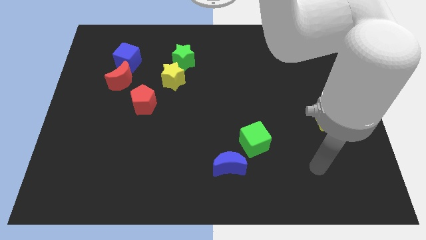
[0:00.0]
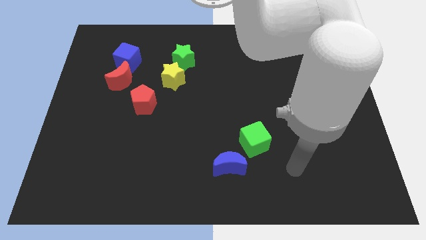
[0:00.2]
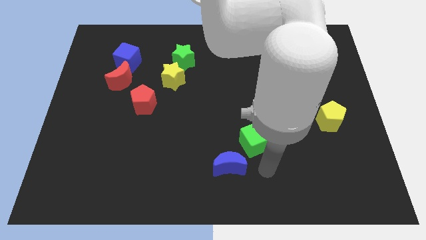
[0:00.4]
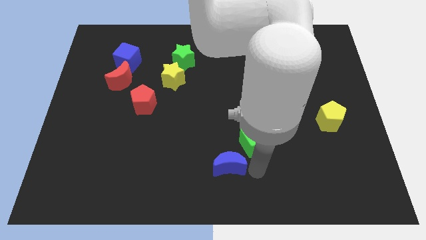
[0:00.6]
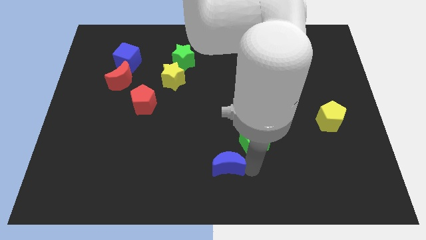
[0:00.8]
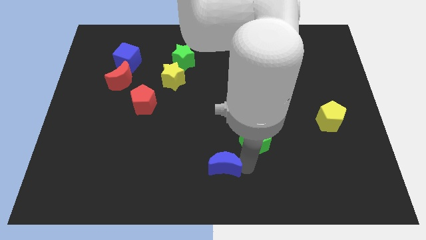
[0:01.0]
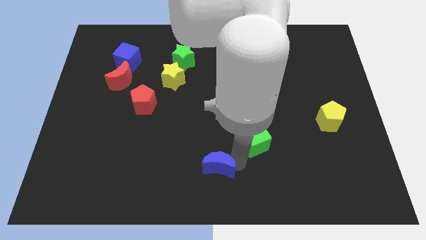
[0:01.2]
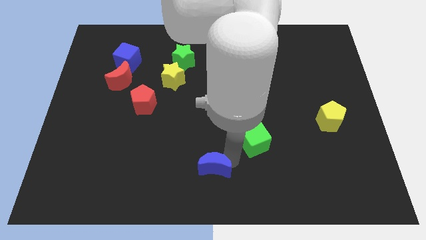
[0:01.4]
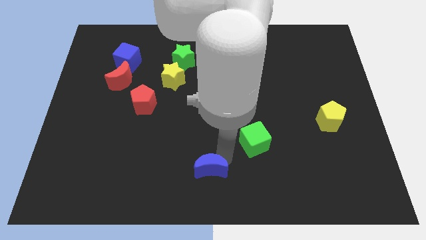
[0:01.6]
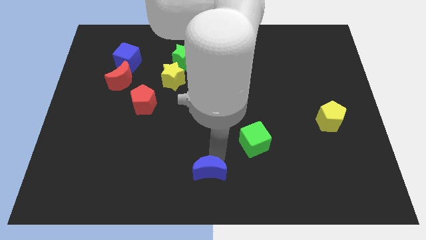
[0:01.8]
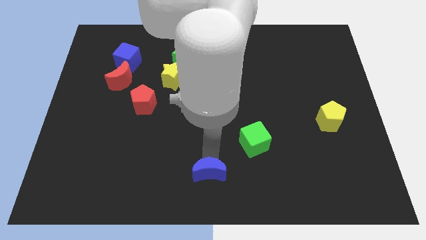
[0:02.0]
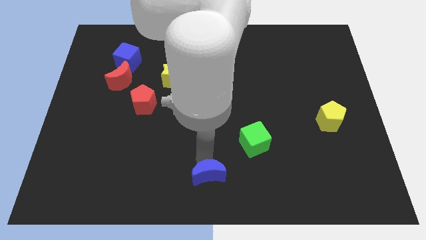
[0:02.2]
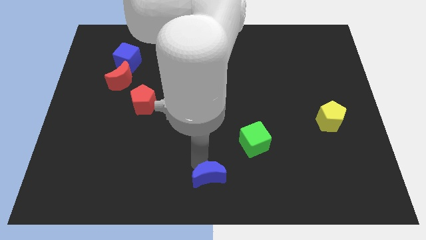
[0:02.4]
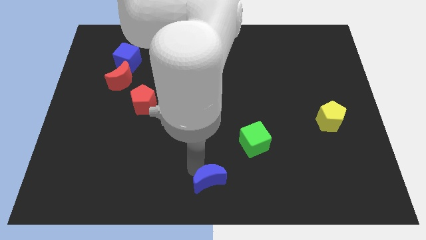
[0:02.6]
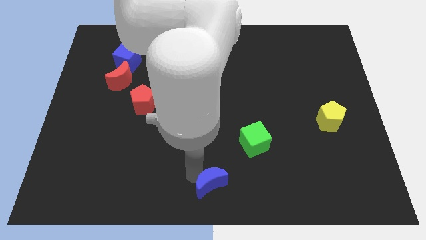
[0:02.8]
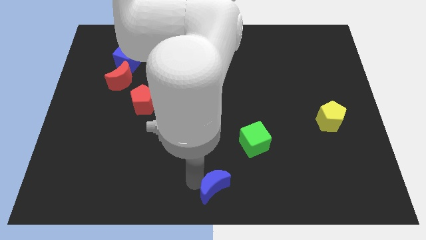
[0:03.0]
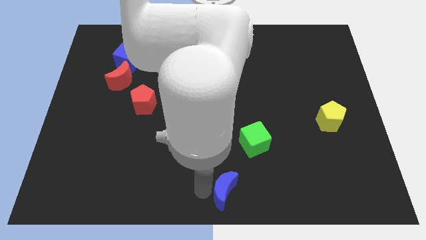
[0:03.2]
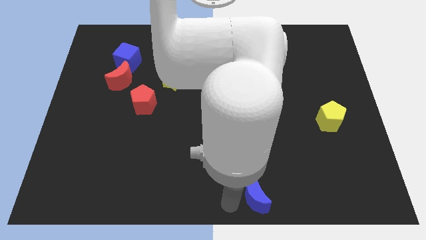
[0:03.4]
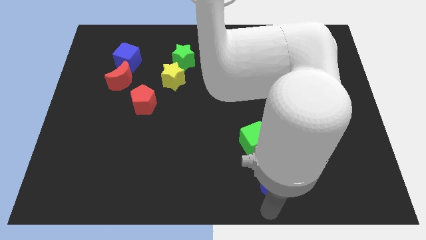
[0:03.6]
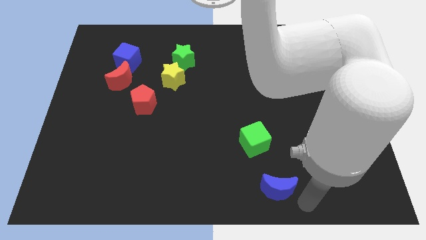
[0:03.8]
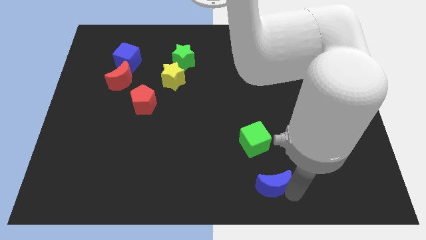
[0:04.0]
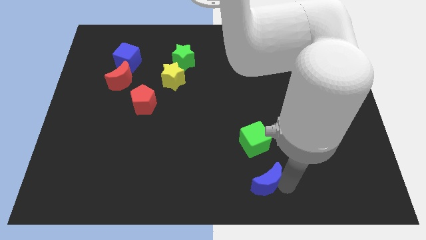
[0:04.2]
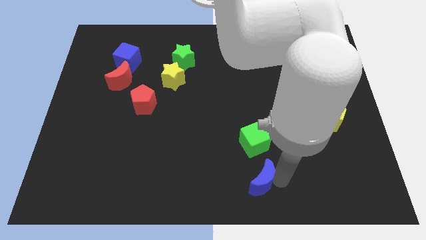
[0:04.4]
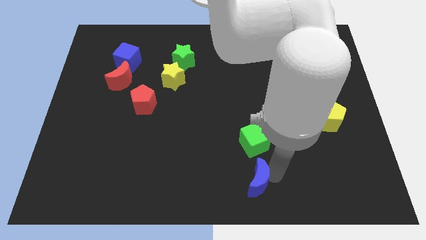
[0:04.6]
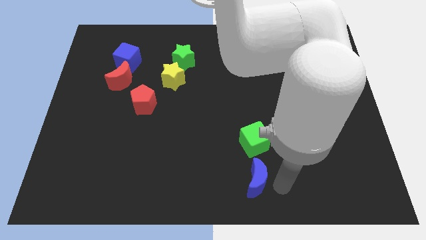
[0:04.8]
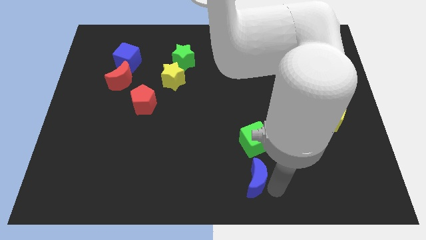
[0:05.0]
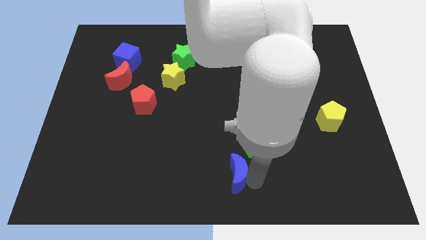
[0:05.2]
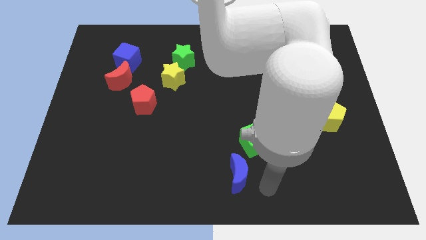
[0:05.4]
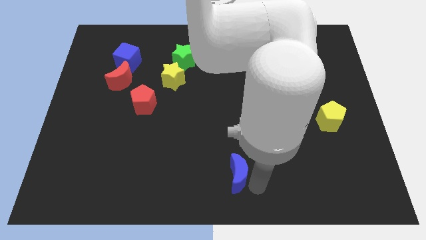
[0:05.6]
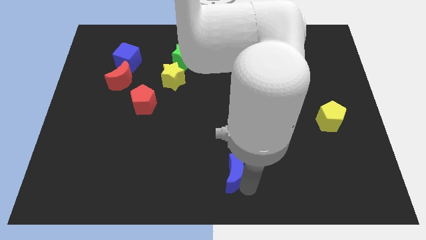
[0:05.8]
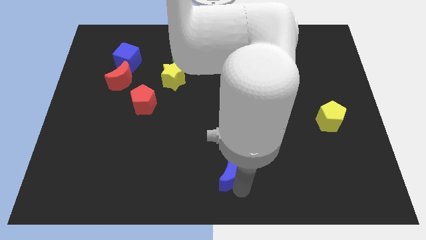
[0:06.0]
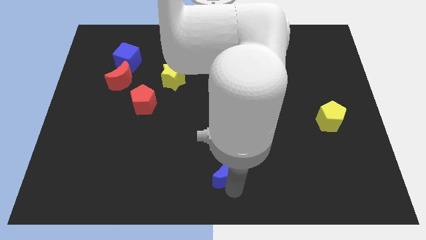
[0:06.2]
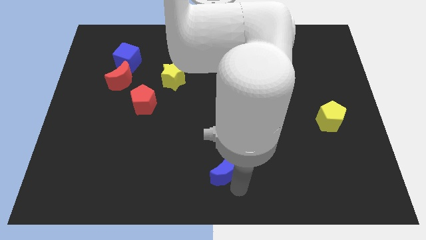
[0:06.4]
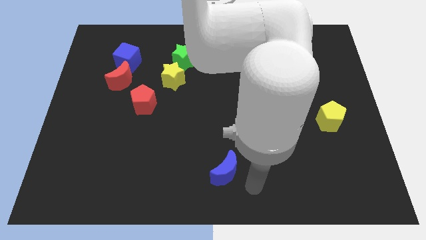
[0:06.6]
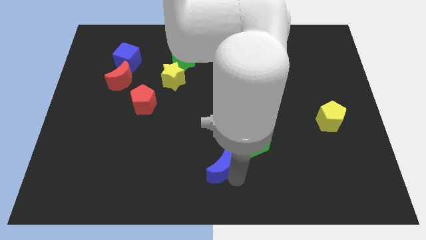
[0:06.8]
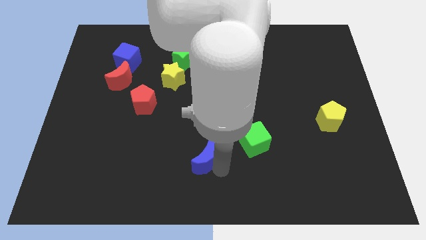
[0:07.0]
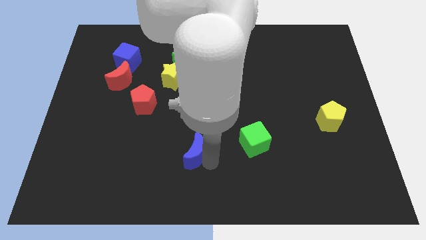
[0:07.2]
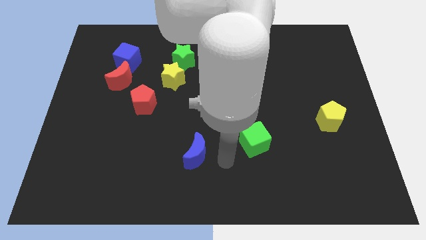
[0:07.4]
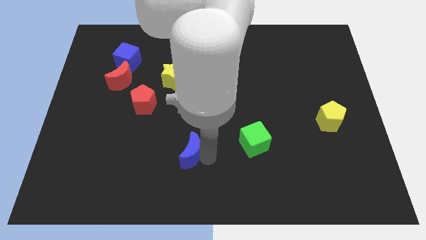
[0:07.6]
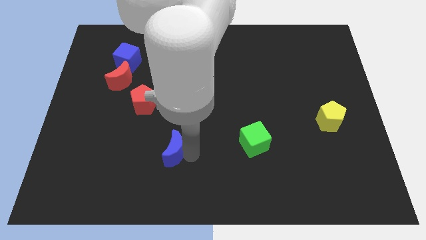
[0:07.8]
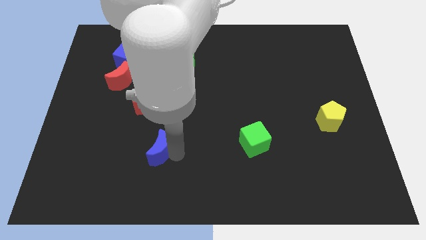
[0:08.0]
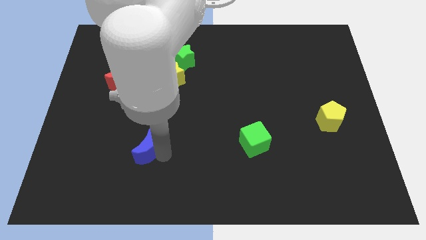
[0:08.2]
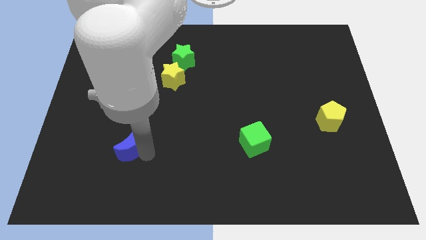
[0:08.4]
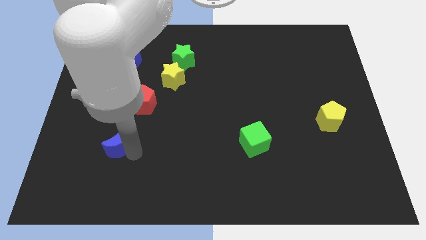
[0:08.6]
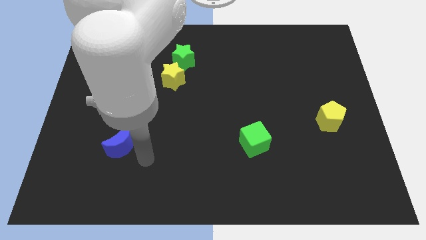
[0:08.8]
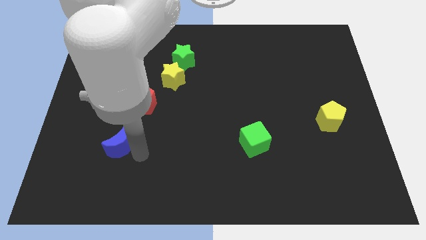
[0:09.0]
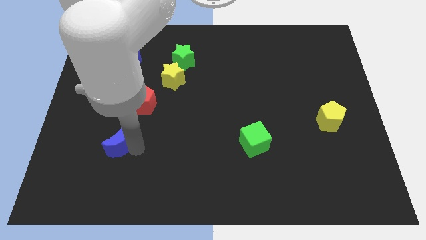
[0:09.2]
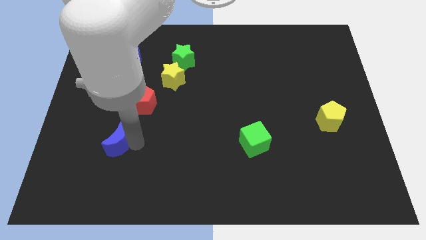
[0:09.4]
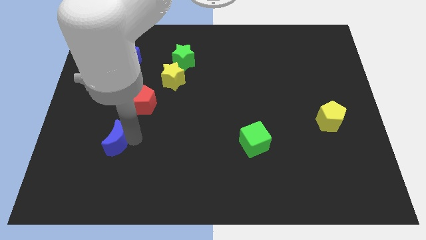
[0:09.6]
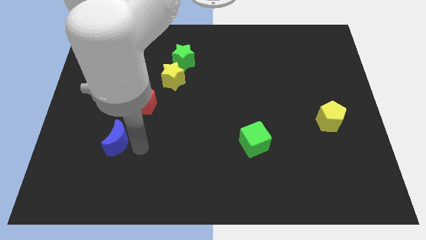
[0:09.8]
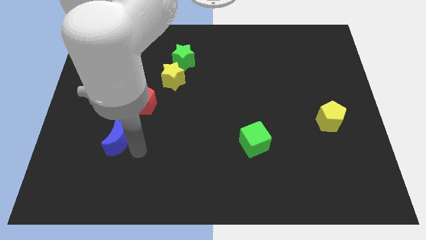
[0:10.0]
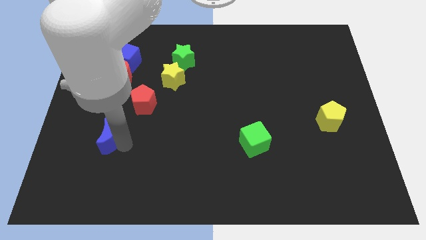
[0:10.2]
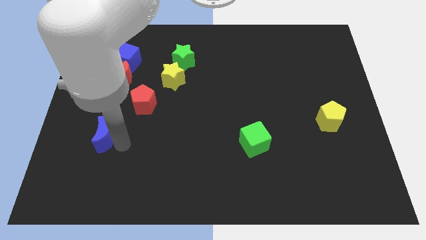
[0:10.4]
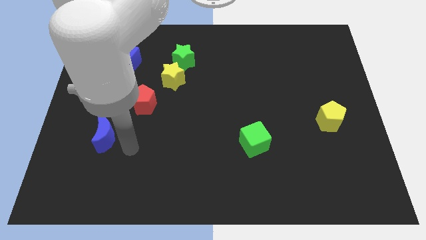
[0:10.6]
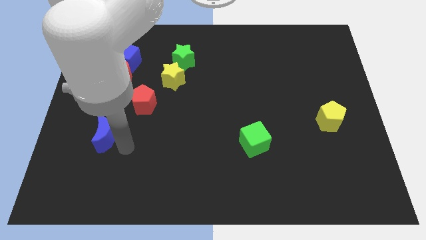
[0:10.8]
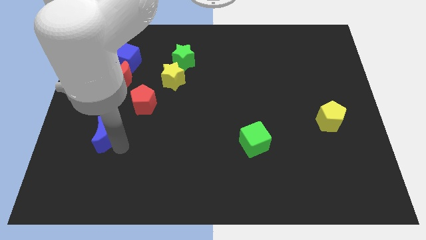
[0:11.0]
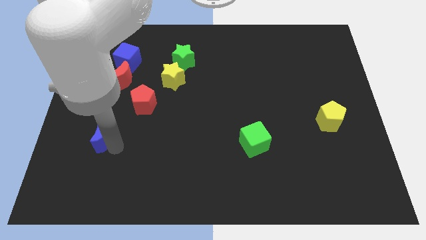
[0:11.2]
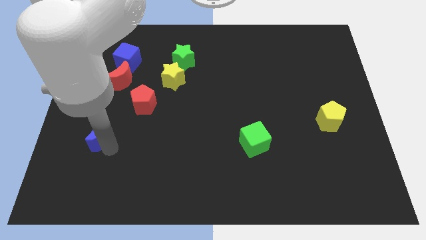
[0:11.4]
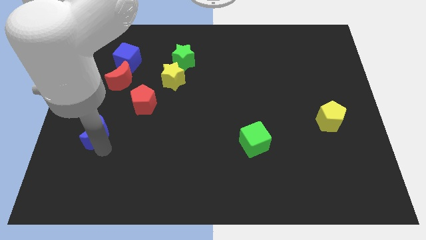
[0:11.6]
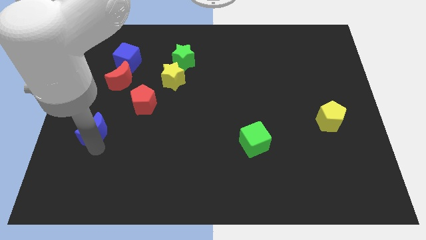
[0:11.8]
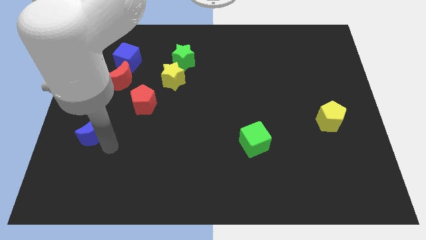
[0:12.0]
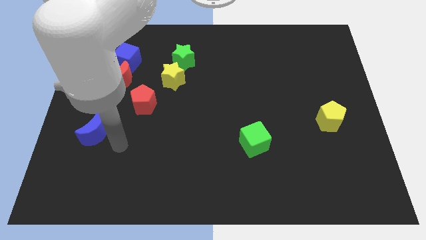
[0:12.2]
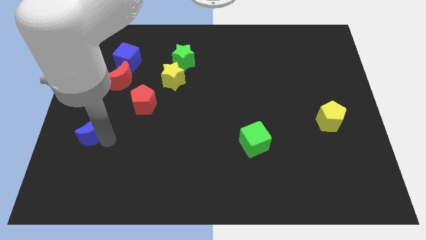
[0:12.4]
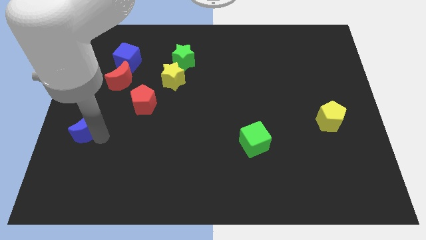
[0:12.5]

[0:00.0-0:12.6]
push the blue moon to the left side of the board
